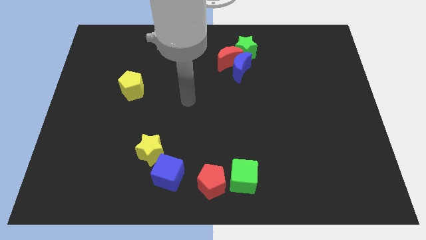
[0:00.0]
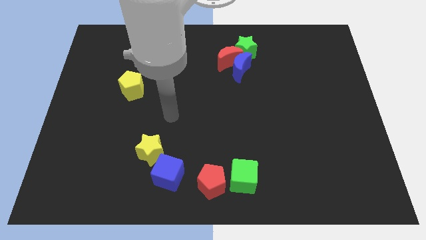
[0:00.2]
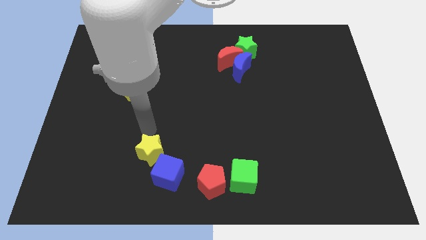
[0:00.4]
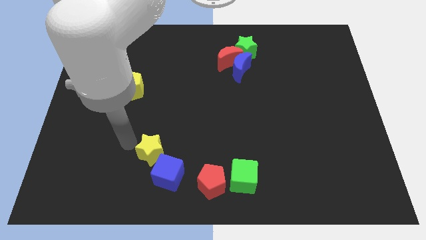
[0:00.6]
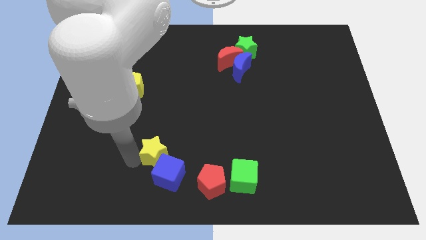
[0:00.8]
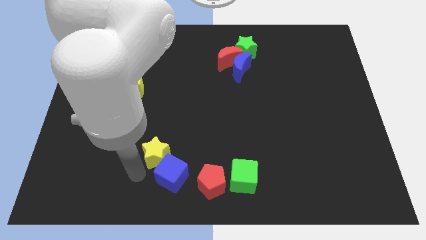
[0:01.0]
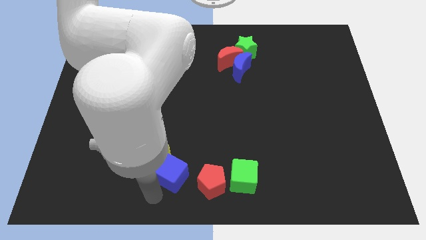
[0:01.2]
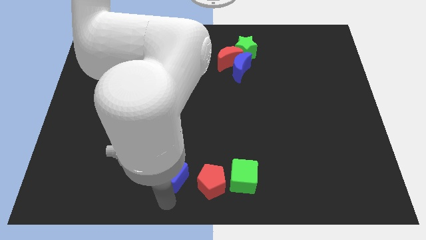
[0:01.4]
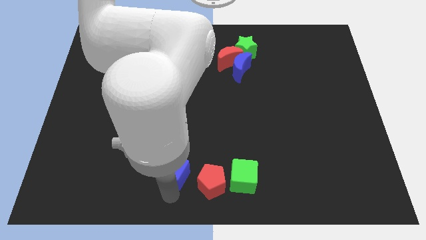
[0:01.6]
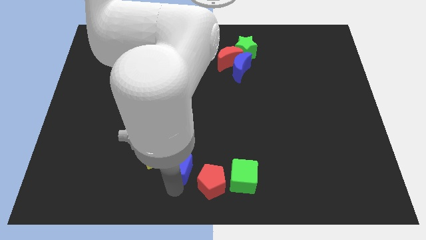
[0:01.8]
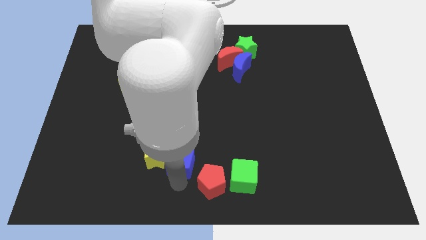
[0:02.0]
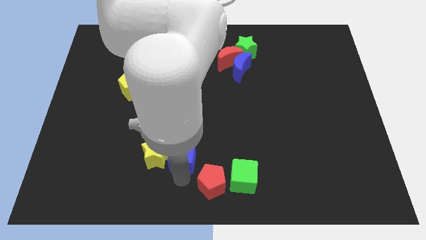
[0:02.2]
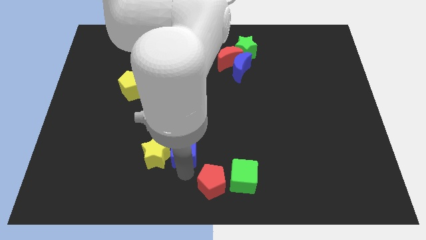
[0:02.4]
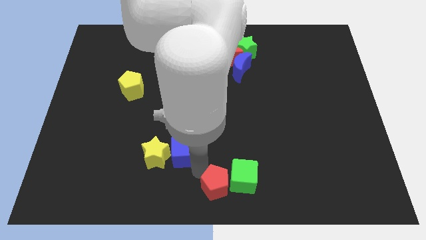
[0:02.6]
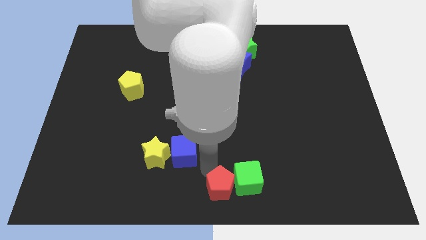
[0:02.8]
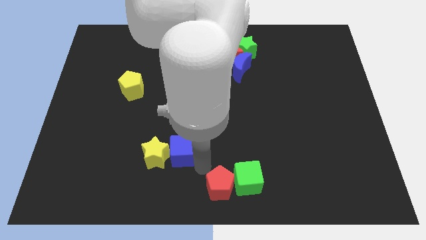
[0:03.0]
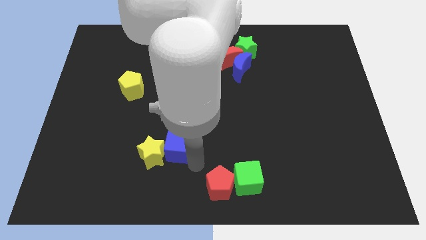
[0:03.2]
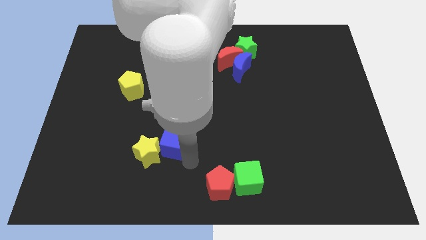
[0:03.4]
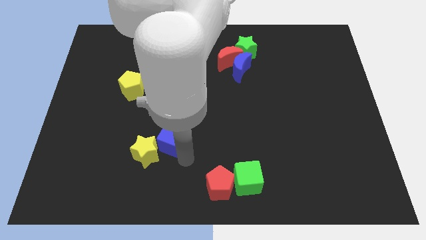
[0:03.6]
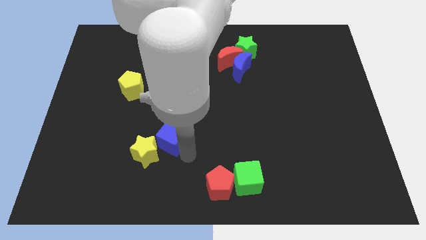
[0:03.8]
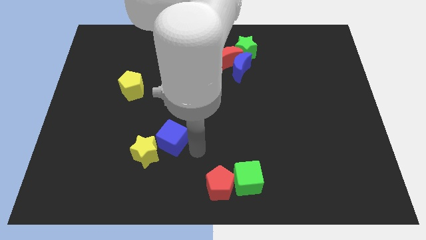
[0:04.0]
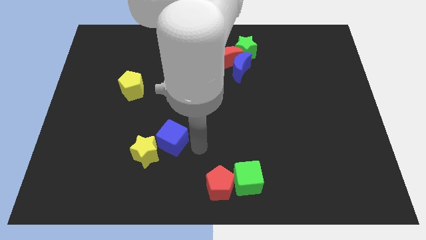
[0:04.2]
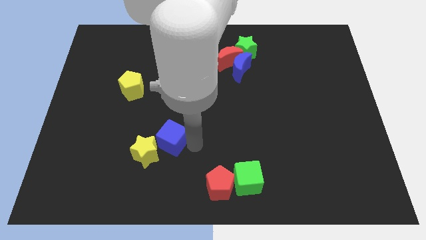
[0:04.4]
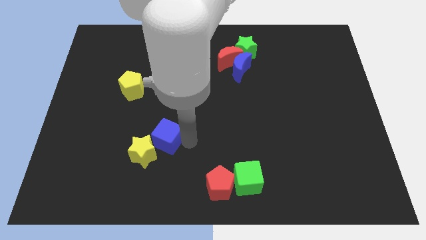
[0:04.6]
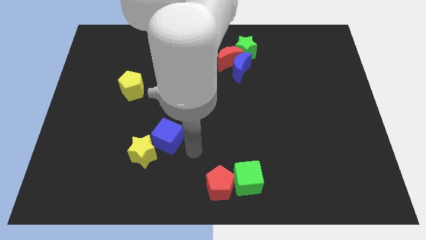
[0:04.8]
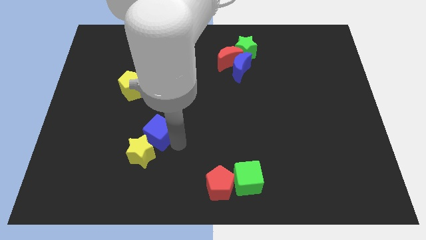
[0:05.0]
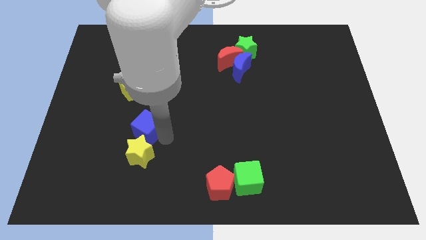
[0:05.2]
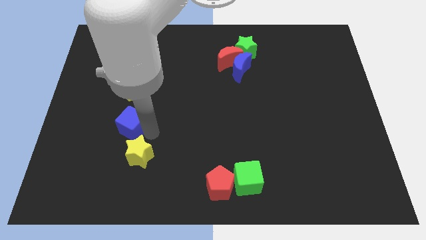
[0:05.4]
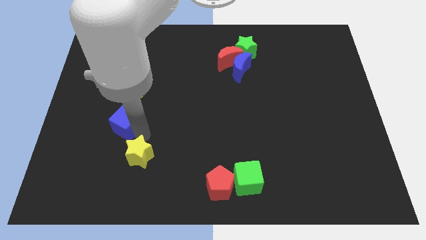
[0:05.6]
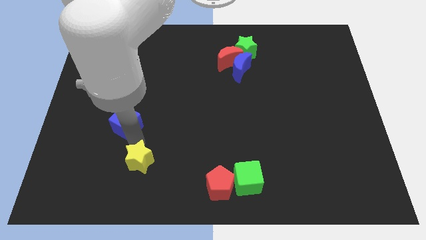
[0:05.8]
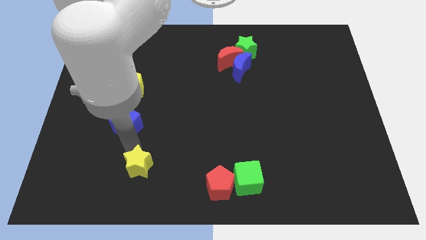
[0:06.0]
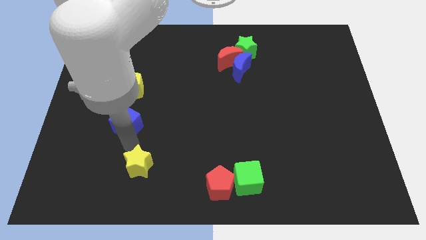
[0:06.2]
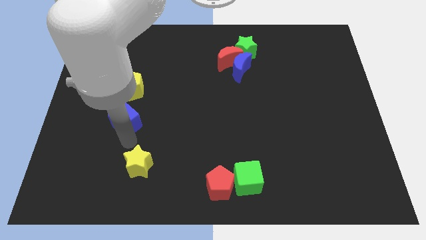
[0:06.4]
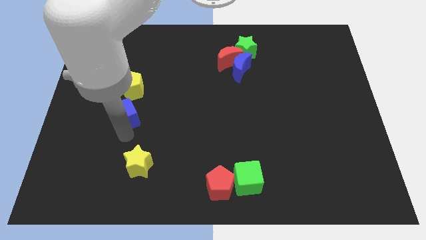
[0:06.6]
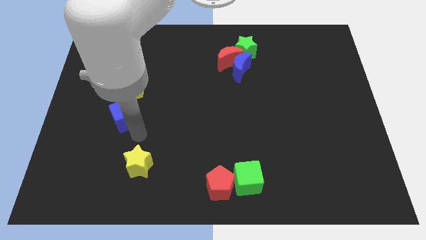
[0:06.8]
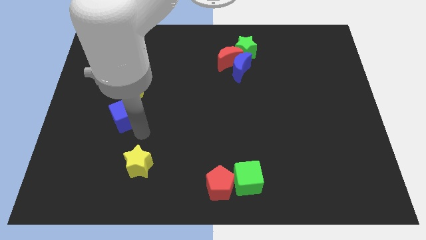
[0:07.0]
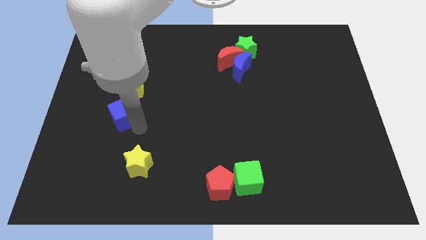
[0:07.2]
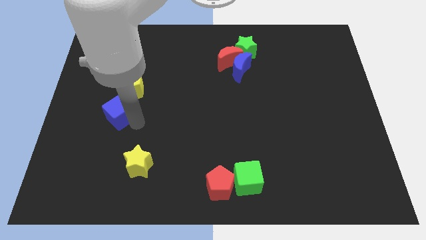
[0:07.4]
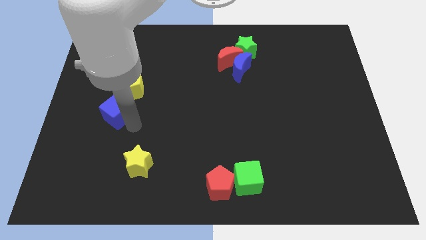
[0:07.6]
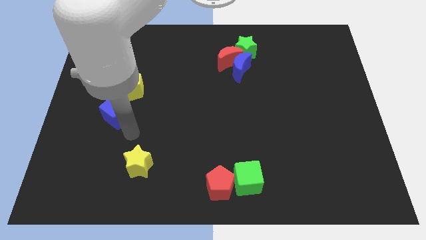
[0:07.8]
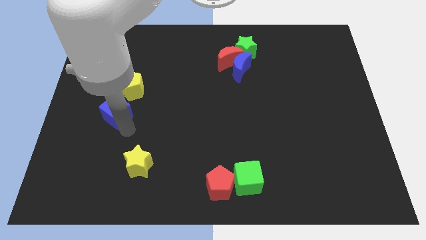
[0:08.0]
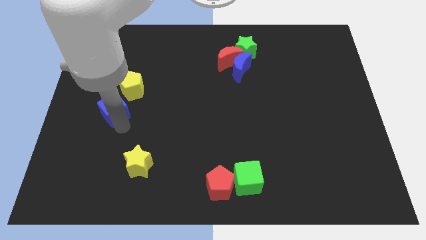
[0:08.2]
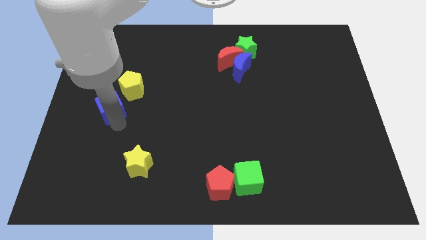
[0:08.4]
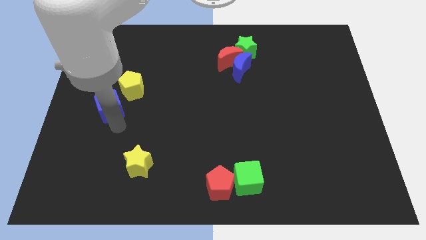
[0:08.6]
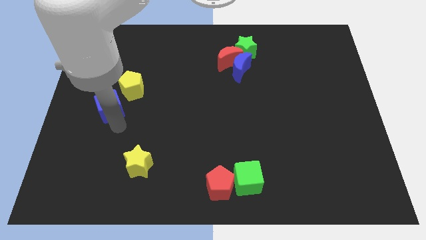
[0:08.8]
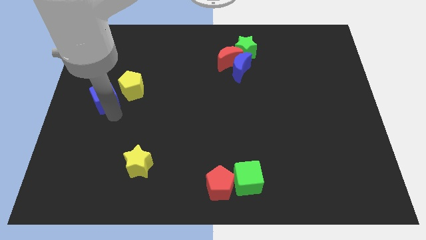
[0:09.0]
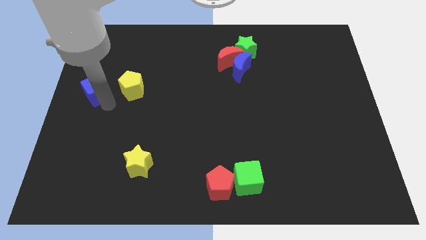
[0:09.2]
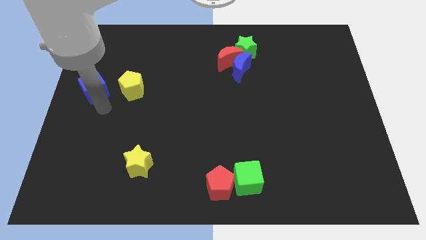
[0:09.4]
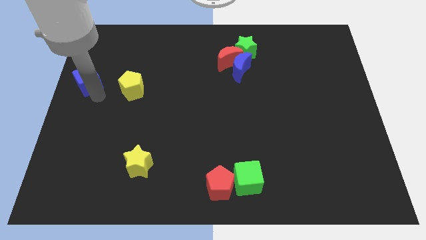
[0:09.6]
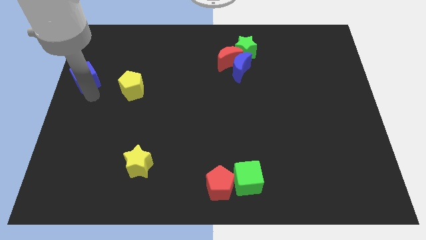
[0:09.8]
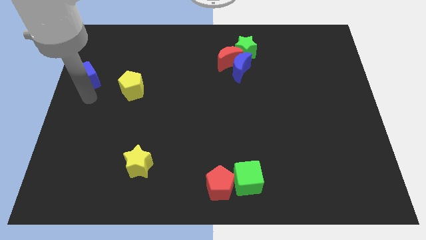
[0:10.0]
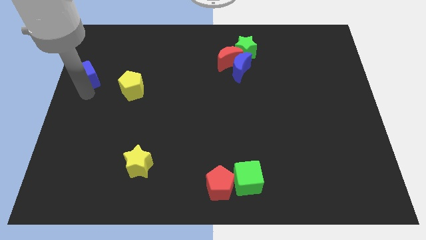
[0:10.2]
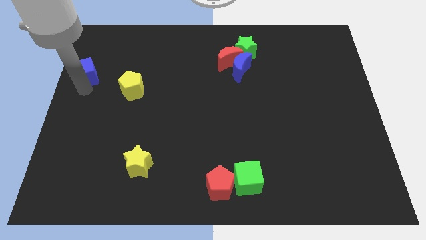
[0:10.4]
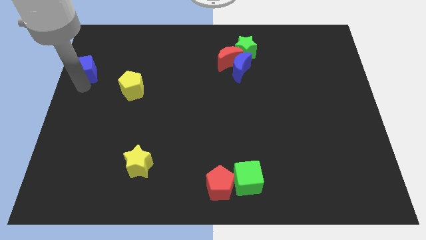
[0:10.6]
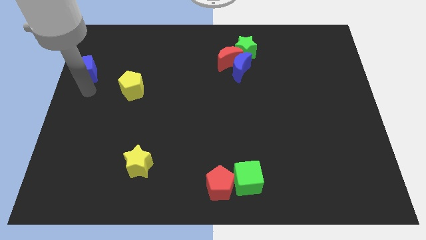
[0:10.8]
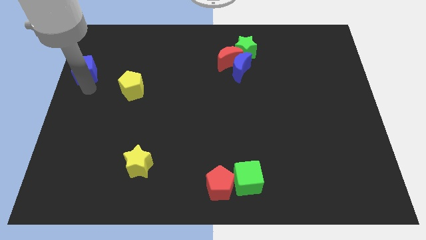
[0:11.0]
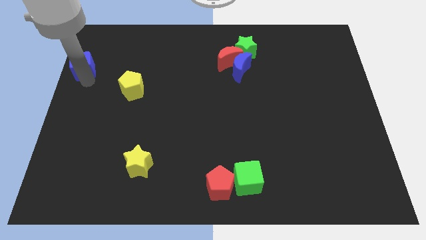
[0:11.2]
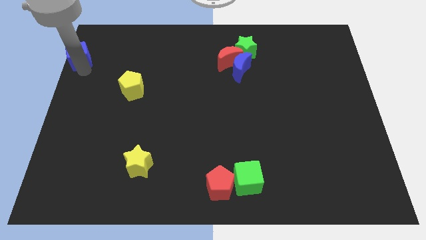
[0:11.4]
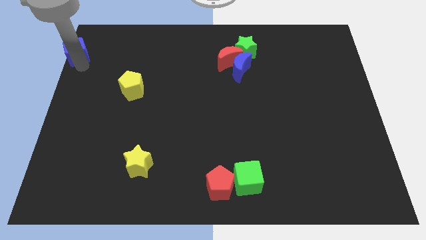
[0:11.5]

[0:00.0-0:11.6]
slide the blue cube to the top left of the board

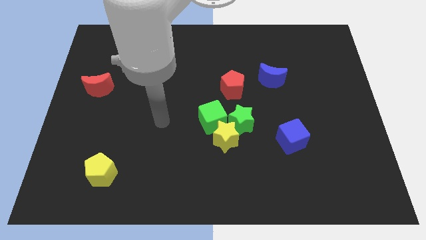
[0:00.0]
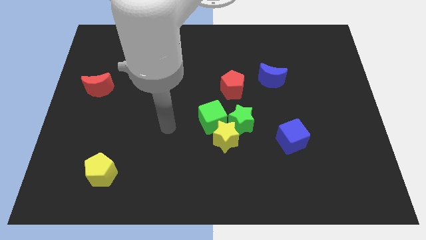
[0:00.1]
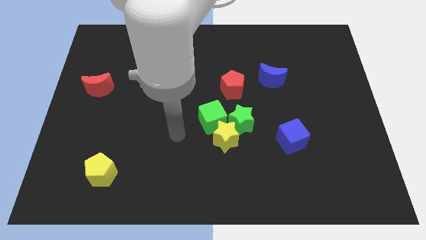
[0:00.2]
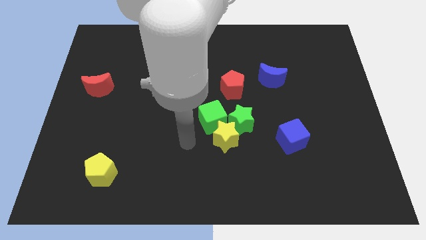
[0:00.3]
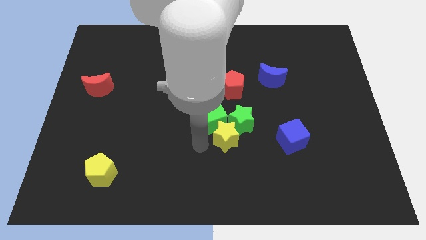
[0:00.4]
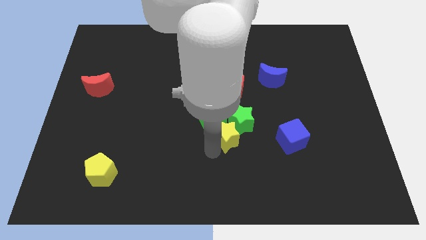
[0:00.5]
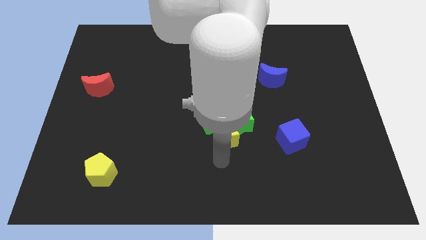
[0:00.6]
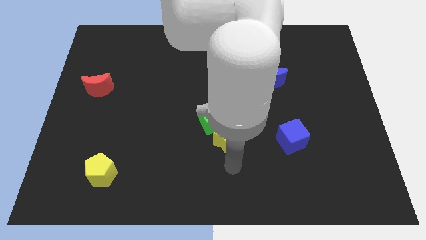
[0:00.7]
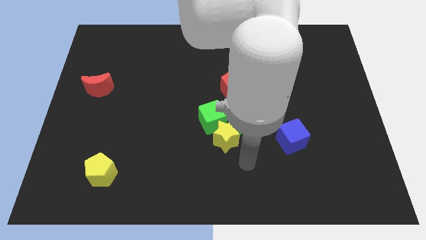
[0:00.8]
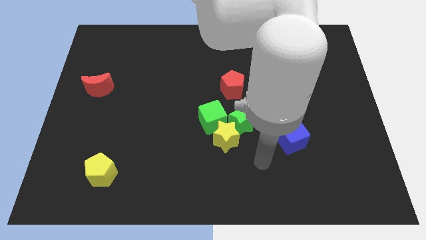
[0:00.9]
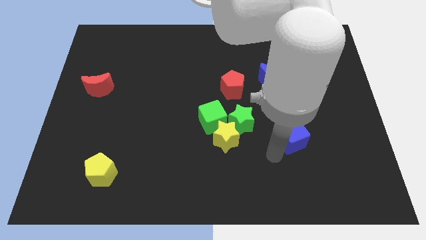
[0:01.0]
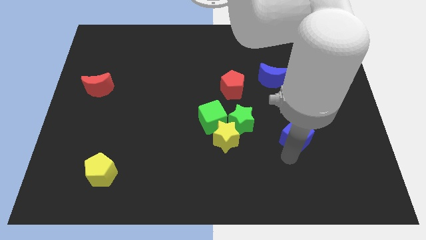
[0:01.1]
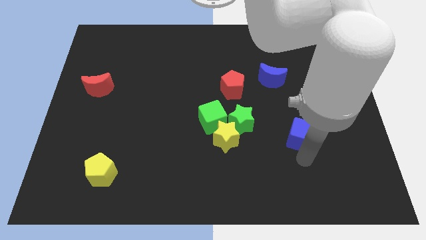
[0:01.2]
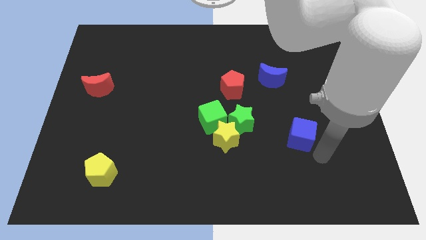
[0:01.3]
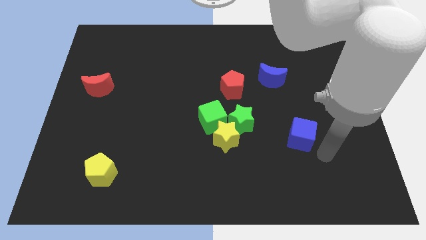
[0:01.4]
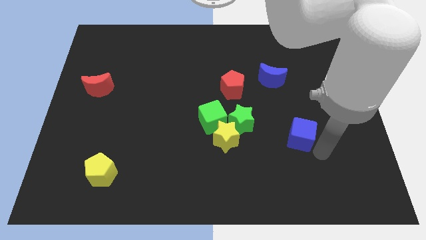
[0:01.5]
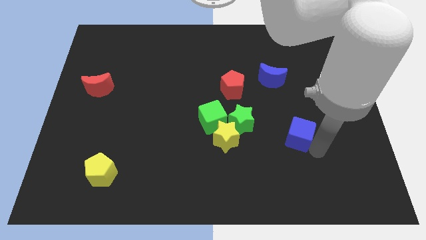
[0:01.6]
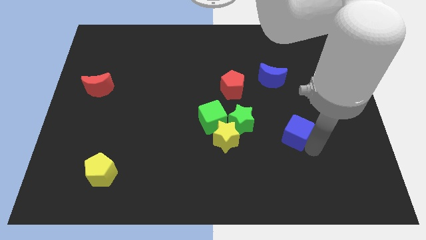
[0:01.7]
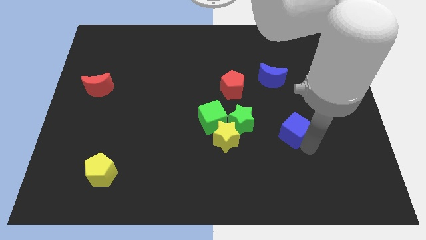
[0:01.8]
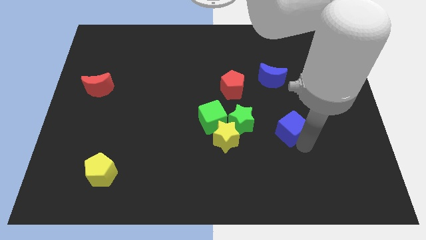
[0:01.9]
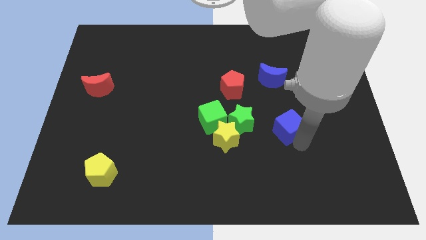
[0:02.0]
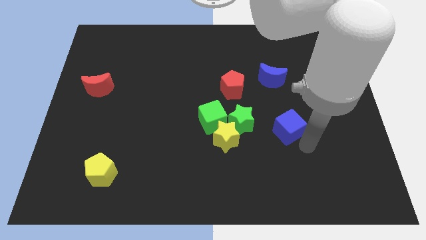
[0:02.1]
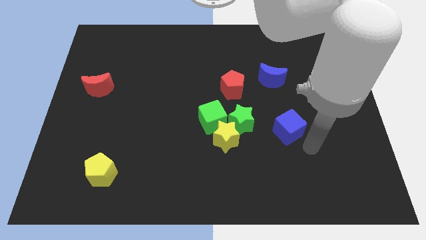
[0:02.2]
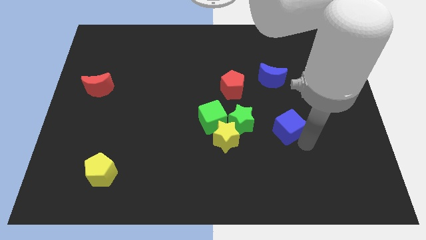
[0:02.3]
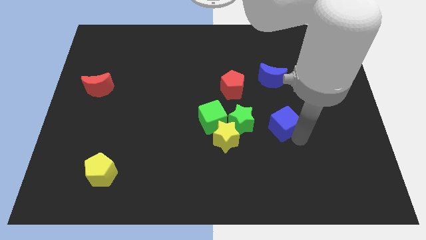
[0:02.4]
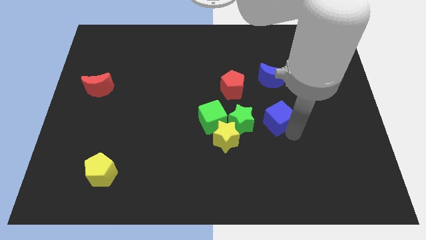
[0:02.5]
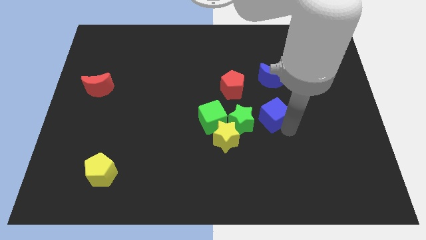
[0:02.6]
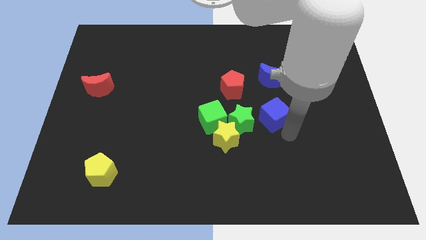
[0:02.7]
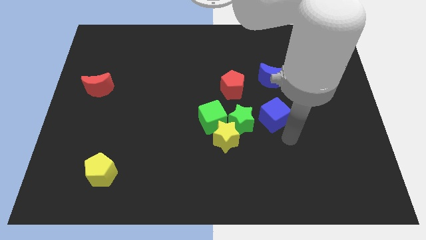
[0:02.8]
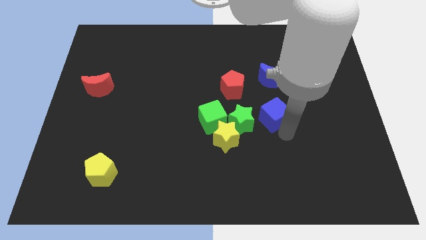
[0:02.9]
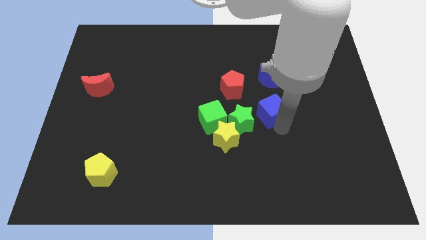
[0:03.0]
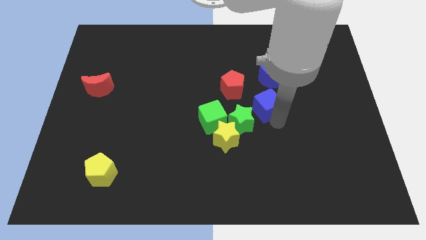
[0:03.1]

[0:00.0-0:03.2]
push the blue cube to the middle
